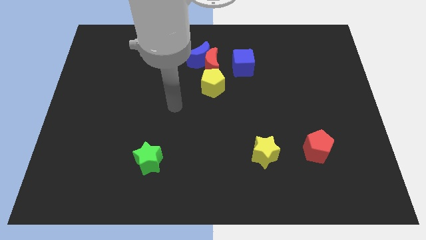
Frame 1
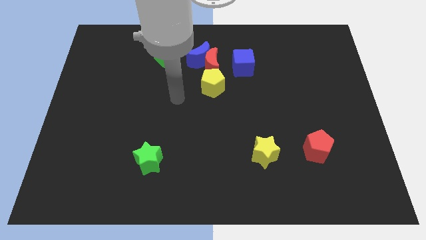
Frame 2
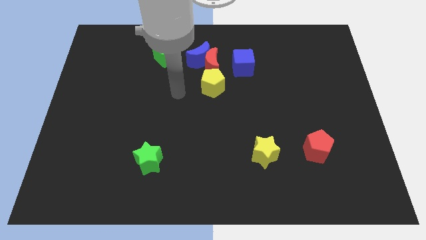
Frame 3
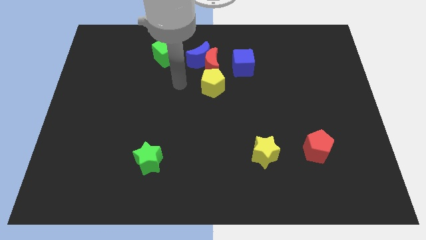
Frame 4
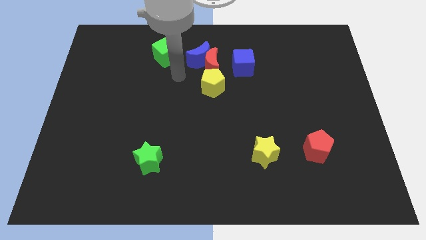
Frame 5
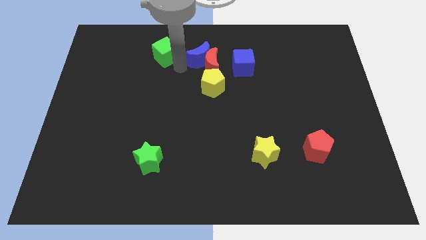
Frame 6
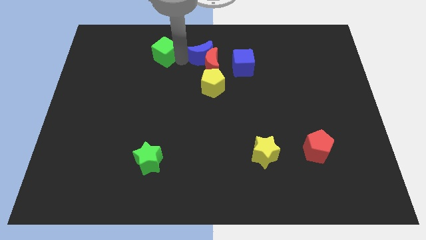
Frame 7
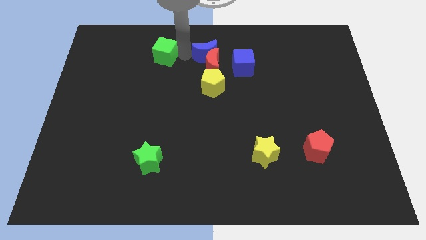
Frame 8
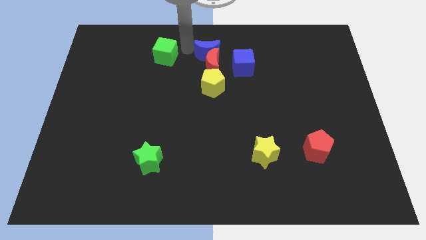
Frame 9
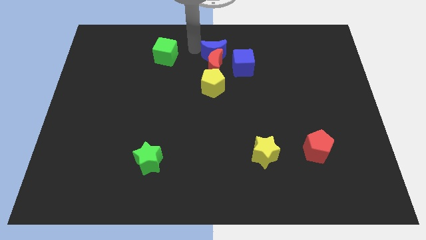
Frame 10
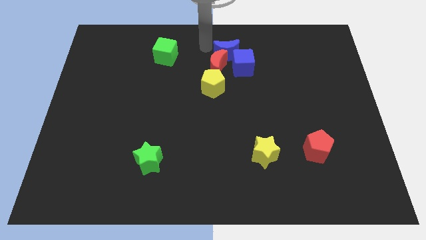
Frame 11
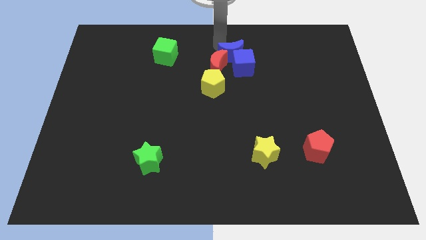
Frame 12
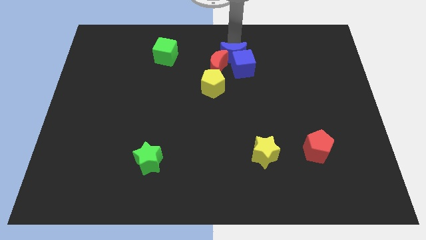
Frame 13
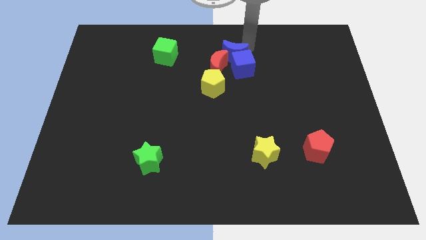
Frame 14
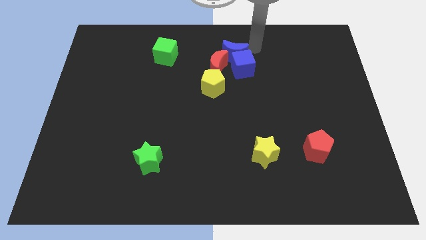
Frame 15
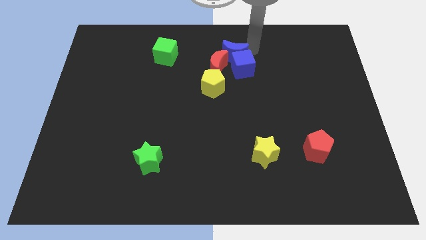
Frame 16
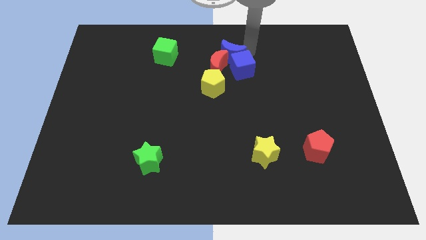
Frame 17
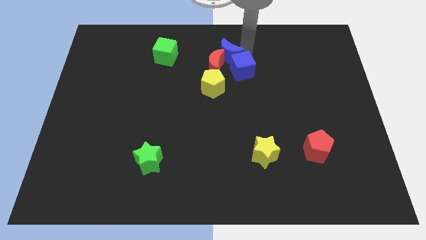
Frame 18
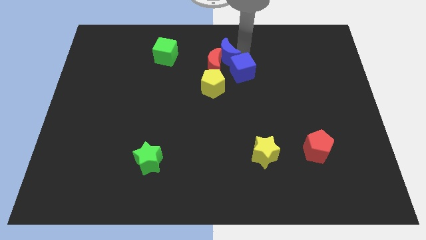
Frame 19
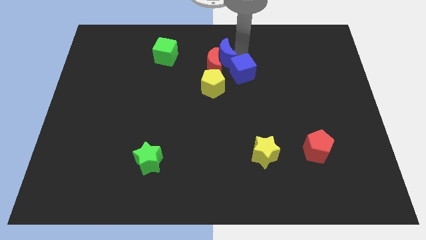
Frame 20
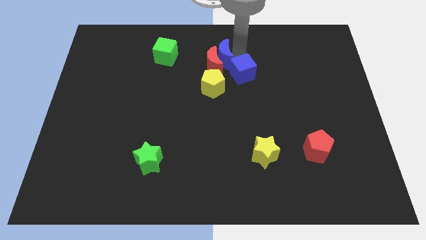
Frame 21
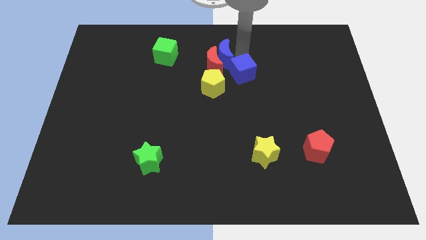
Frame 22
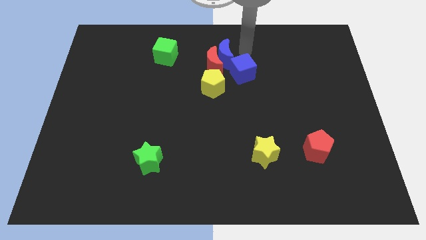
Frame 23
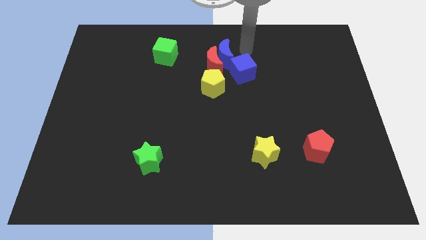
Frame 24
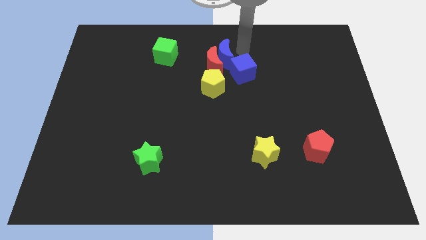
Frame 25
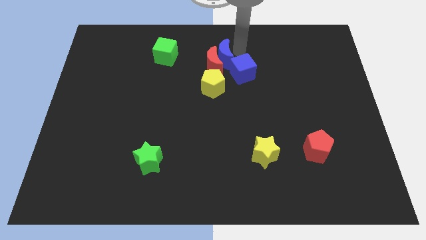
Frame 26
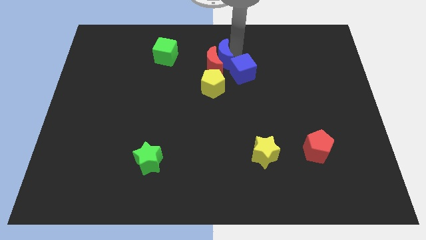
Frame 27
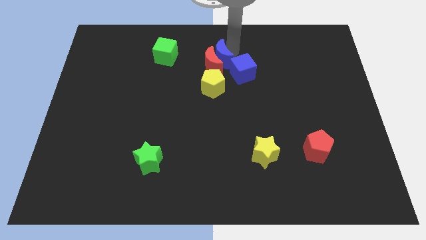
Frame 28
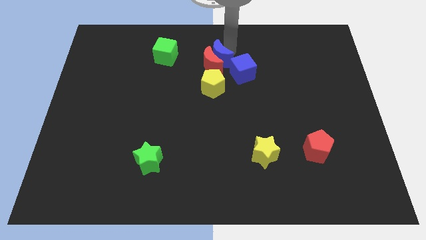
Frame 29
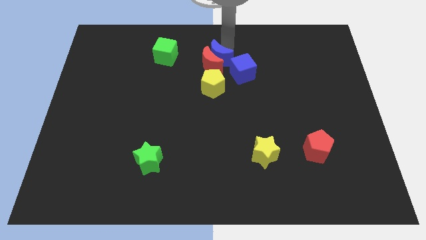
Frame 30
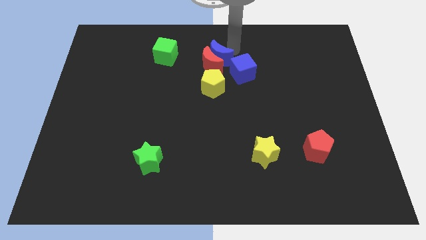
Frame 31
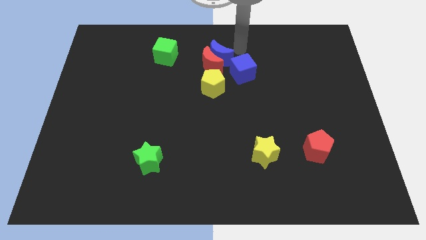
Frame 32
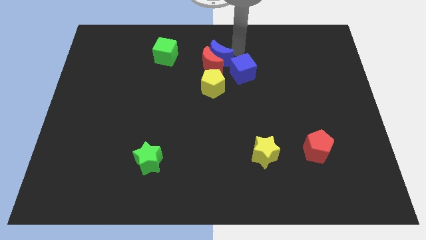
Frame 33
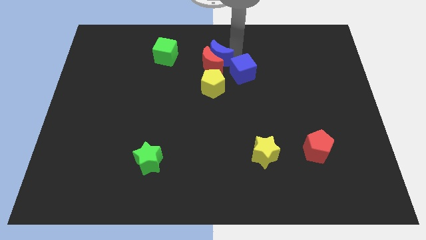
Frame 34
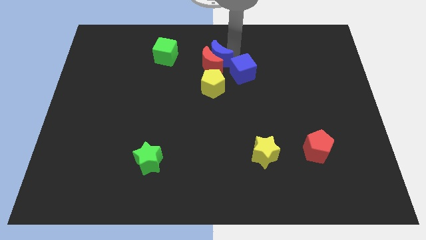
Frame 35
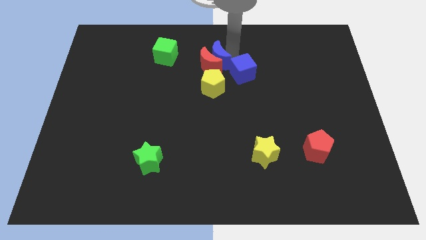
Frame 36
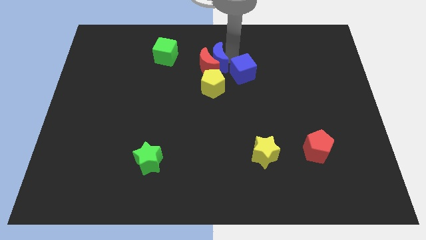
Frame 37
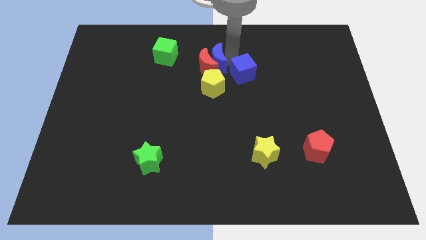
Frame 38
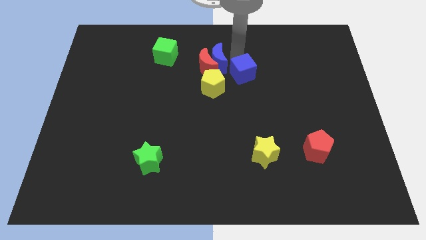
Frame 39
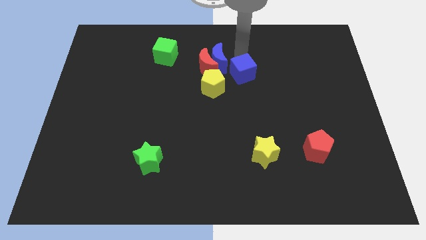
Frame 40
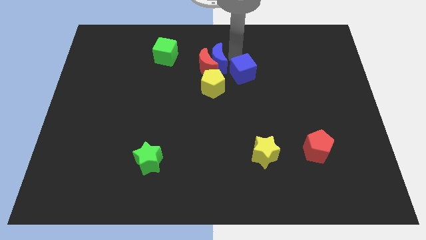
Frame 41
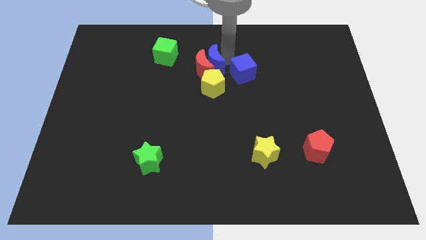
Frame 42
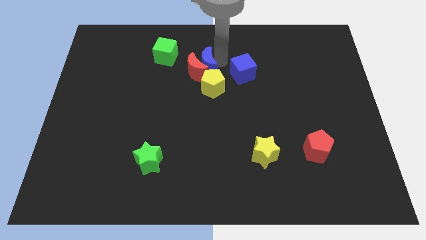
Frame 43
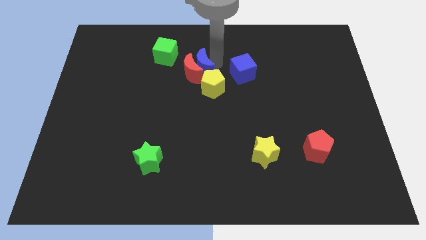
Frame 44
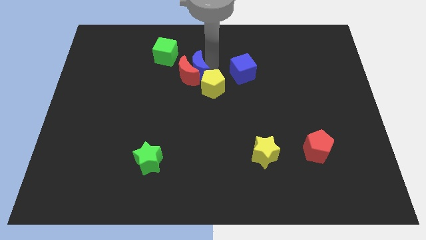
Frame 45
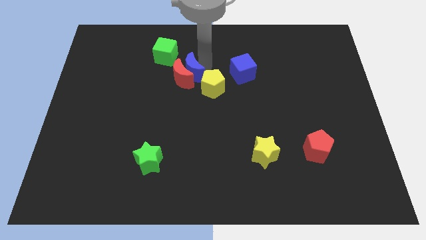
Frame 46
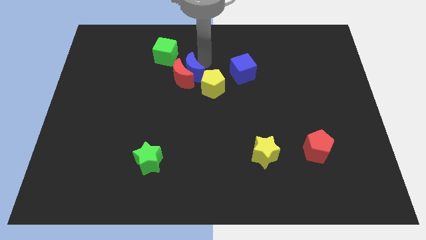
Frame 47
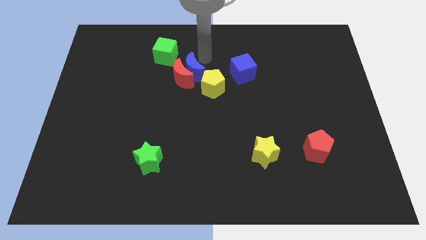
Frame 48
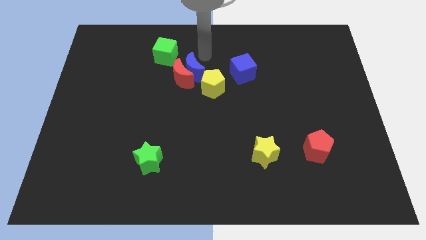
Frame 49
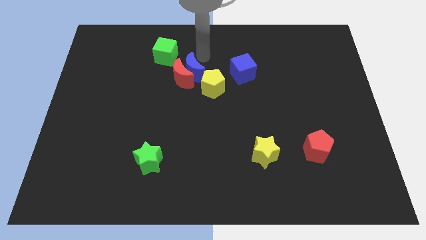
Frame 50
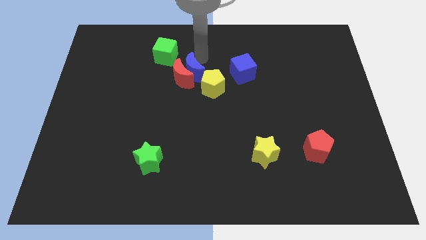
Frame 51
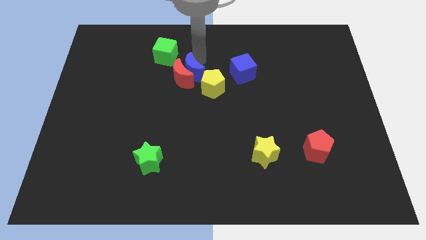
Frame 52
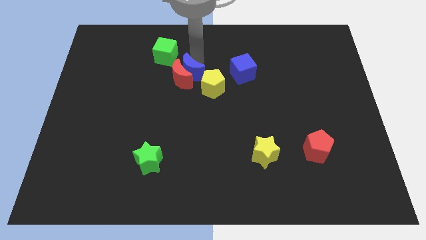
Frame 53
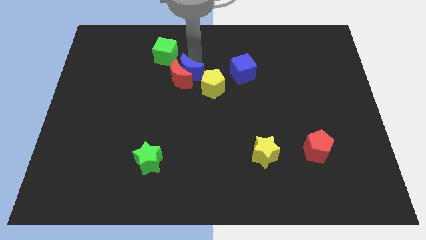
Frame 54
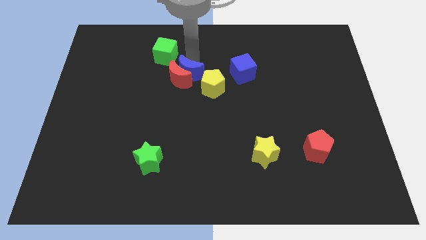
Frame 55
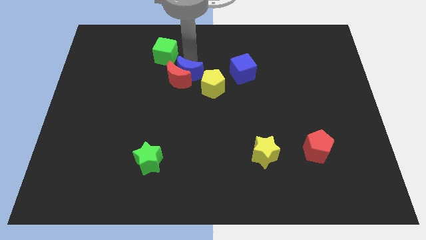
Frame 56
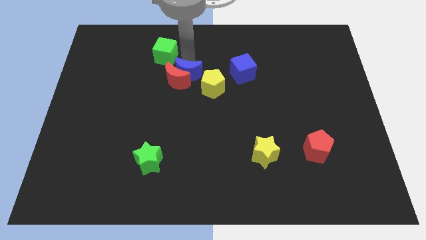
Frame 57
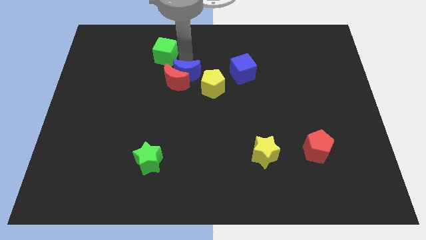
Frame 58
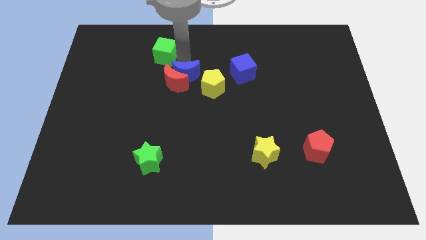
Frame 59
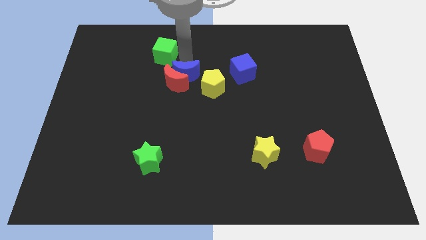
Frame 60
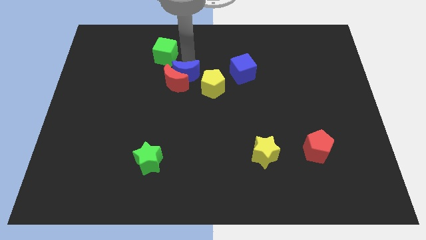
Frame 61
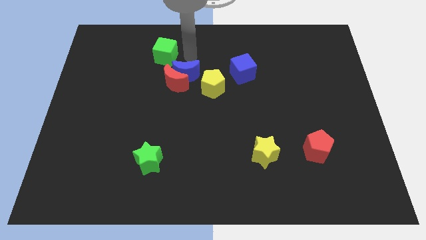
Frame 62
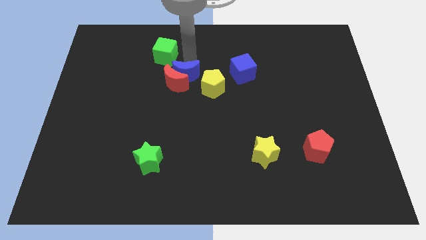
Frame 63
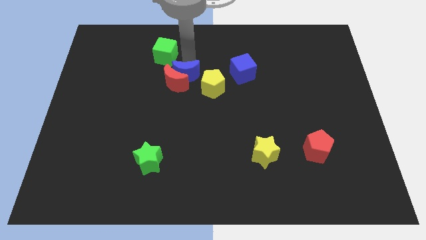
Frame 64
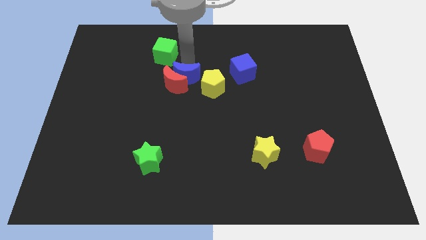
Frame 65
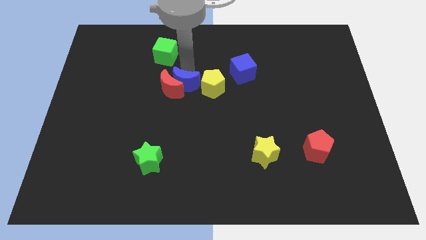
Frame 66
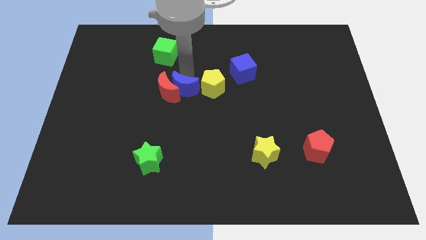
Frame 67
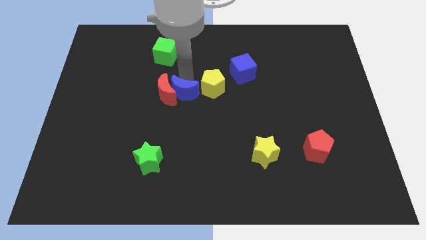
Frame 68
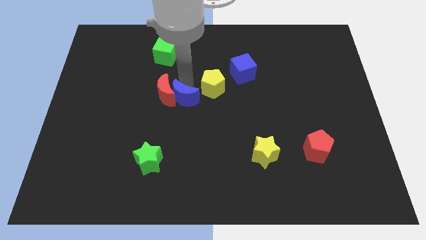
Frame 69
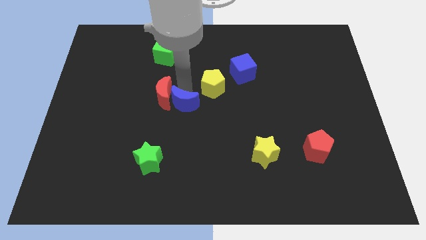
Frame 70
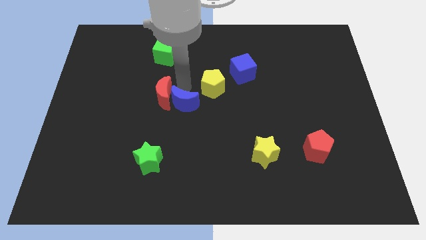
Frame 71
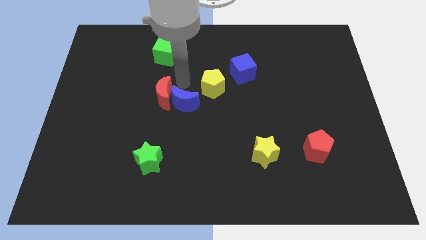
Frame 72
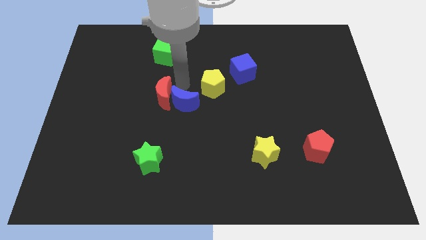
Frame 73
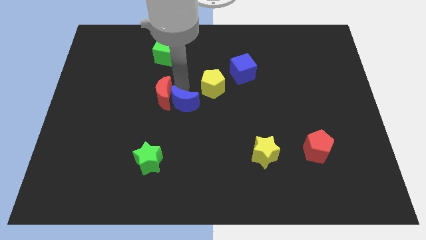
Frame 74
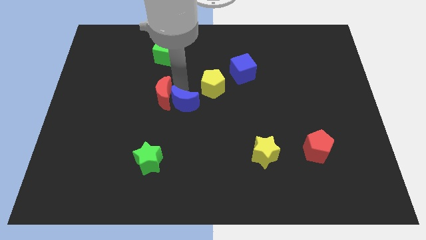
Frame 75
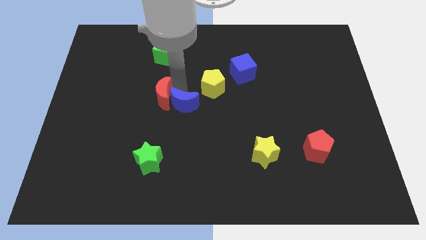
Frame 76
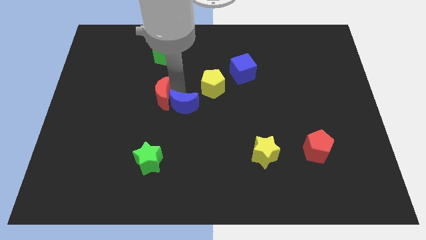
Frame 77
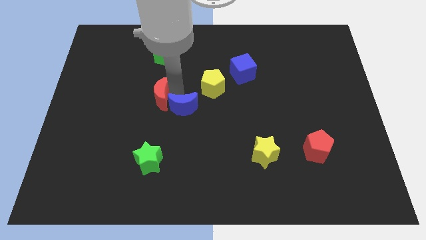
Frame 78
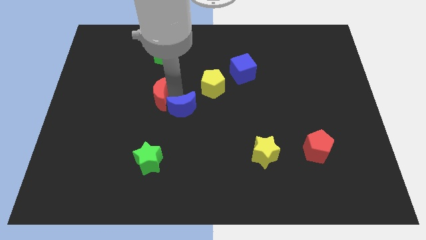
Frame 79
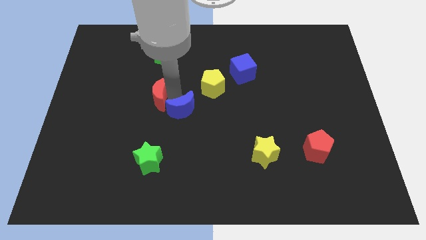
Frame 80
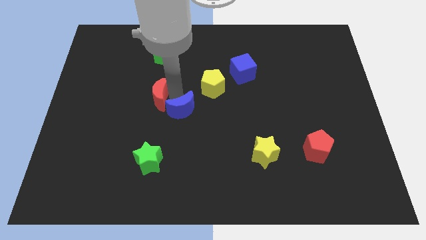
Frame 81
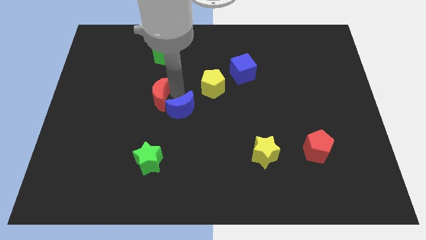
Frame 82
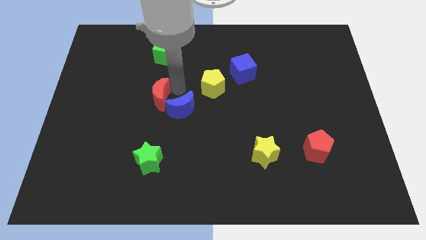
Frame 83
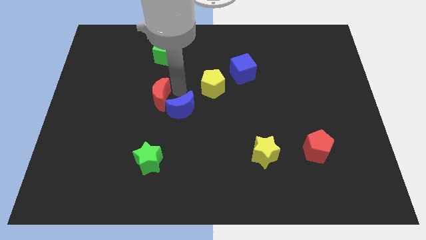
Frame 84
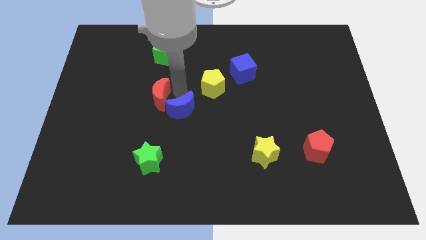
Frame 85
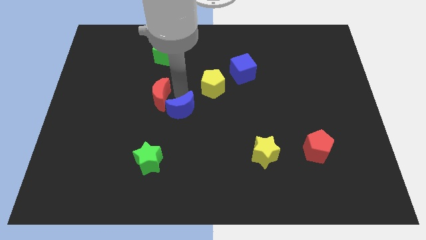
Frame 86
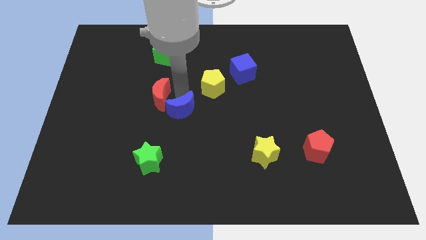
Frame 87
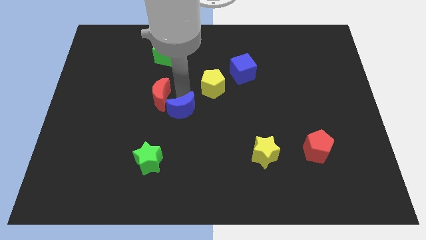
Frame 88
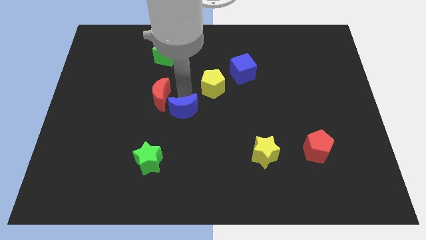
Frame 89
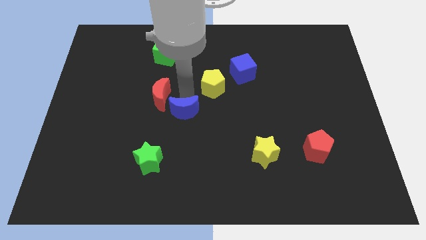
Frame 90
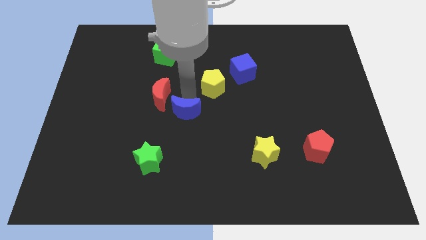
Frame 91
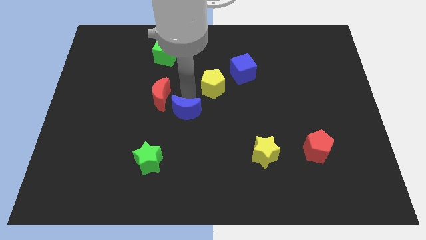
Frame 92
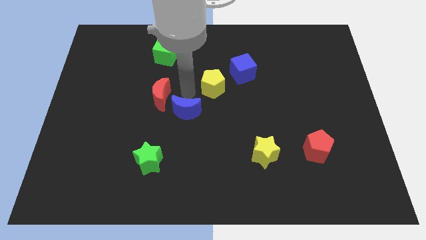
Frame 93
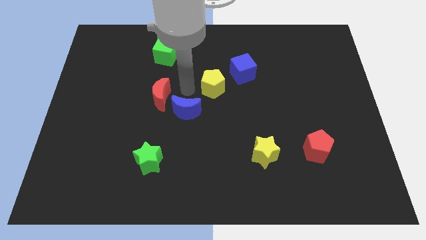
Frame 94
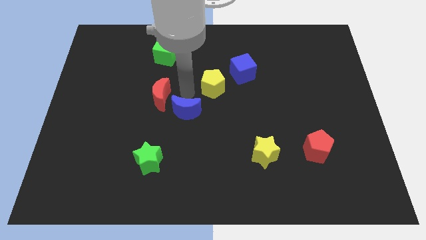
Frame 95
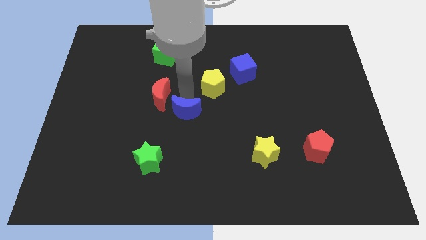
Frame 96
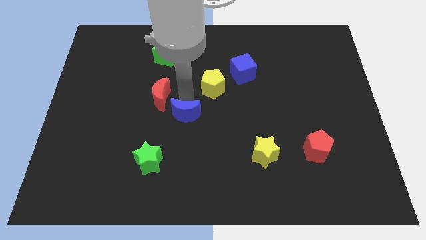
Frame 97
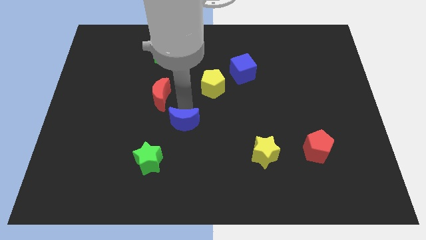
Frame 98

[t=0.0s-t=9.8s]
slide the blue moon downwards
